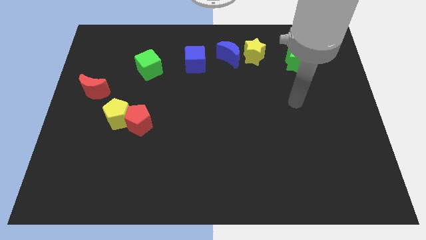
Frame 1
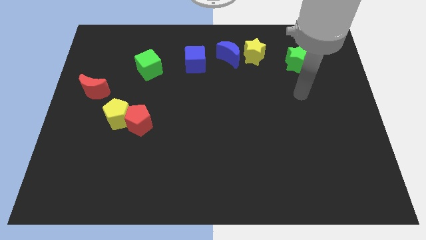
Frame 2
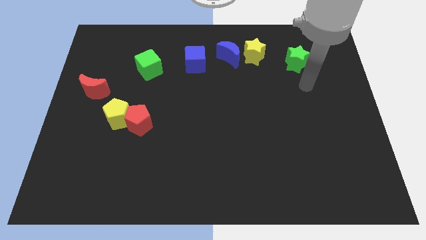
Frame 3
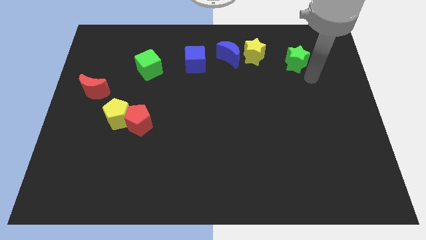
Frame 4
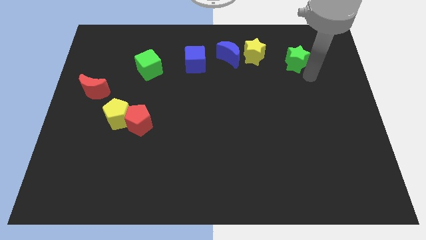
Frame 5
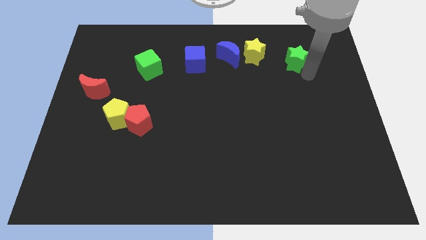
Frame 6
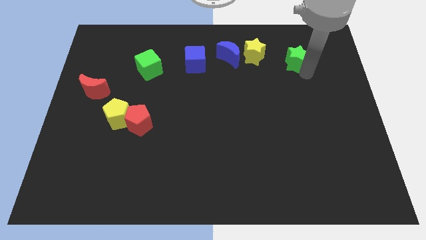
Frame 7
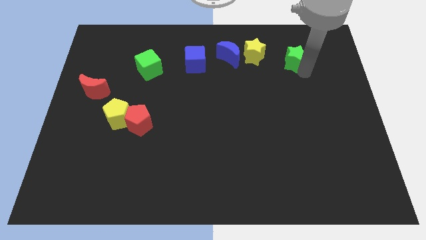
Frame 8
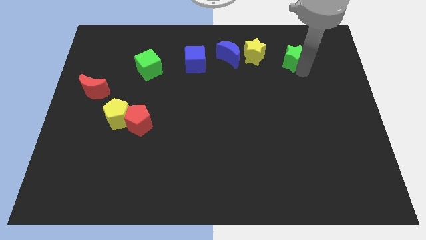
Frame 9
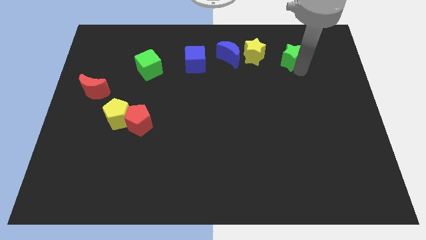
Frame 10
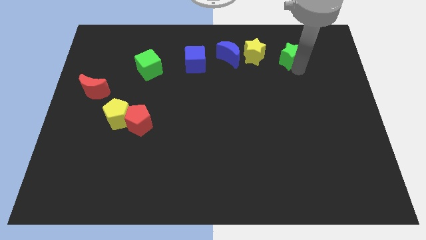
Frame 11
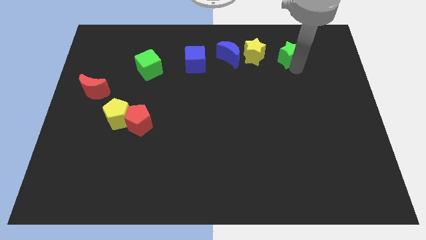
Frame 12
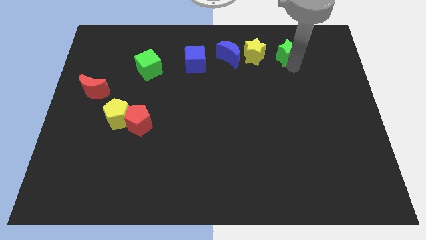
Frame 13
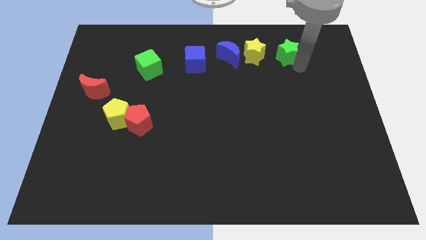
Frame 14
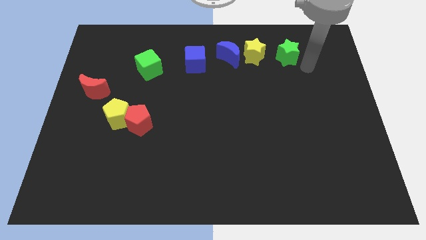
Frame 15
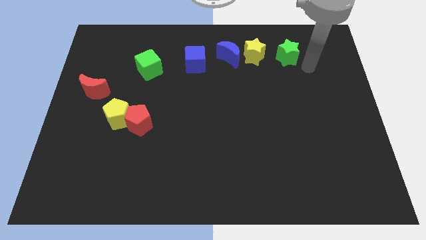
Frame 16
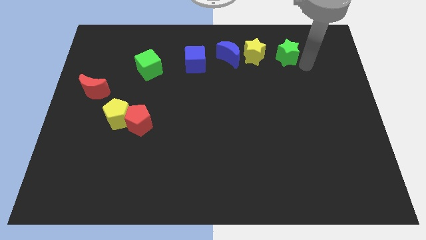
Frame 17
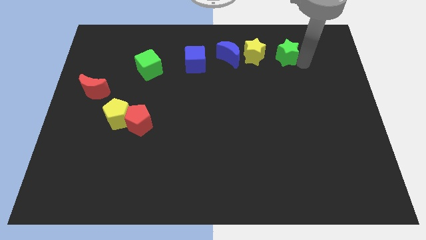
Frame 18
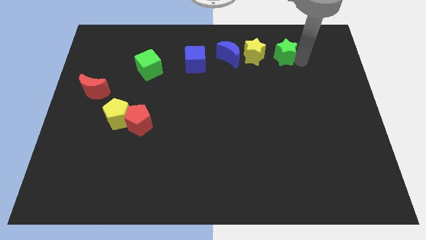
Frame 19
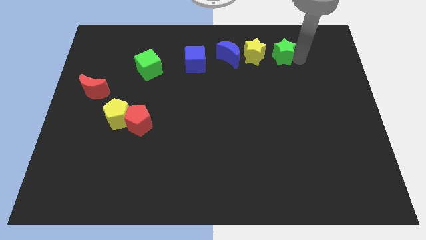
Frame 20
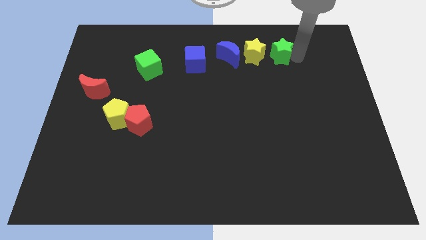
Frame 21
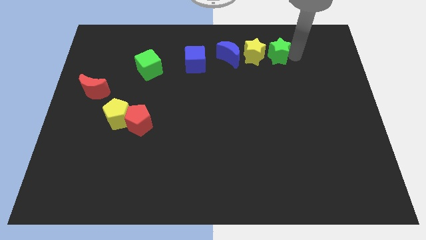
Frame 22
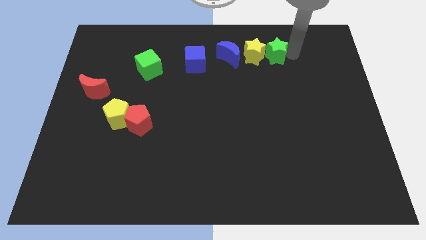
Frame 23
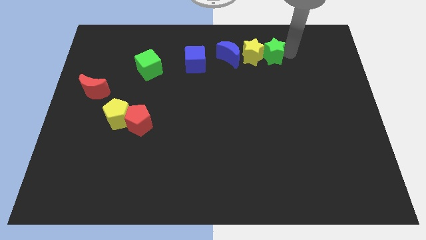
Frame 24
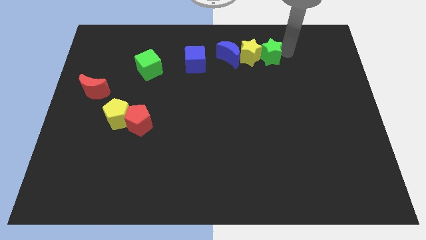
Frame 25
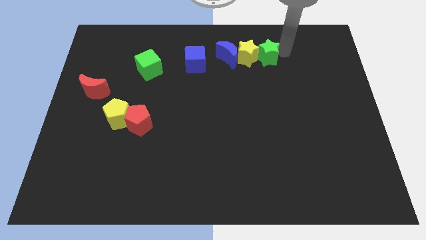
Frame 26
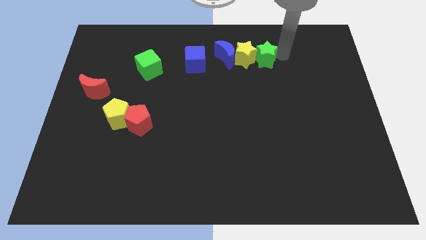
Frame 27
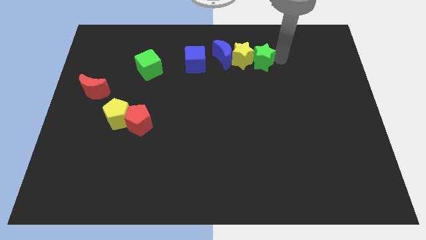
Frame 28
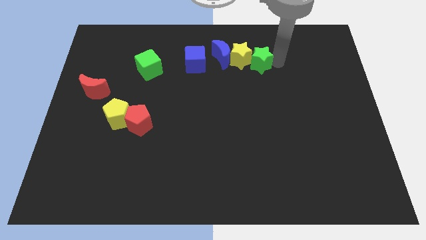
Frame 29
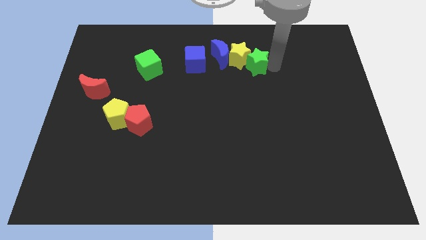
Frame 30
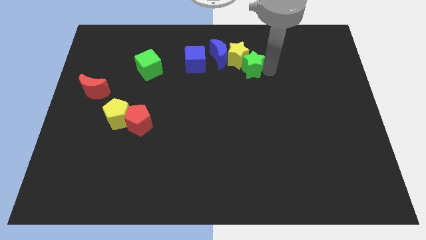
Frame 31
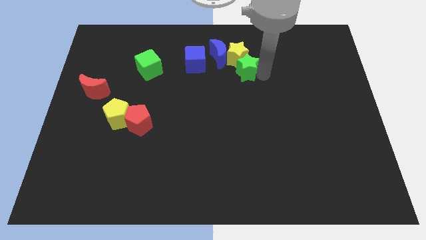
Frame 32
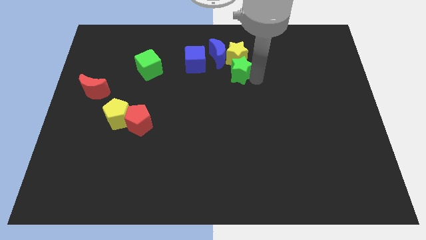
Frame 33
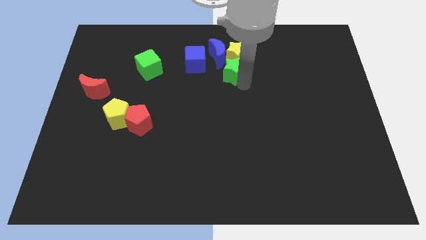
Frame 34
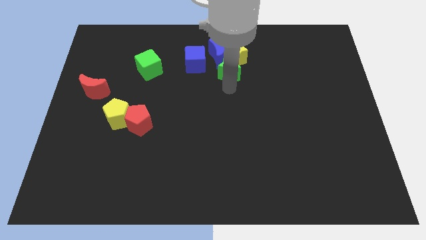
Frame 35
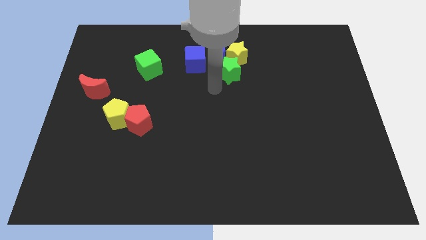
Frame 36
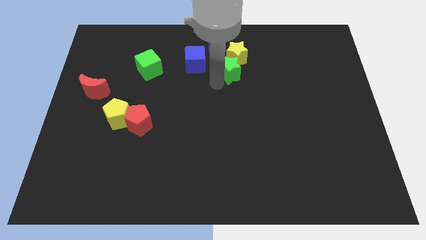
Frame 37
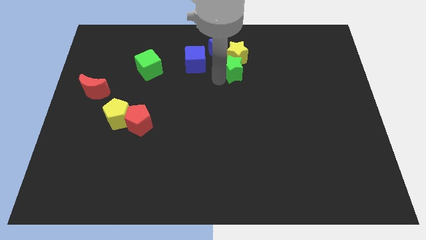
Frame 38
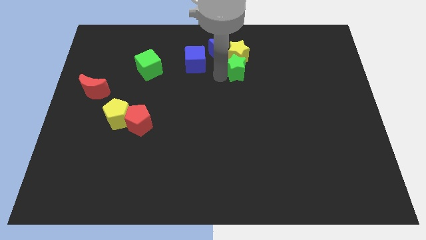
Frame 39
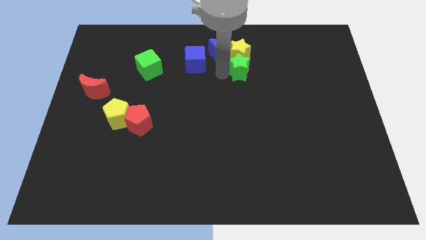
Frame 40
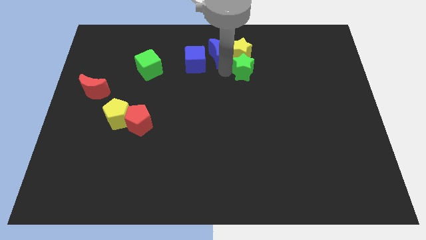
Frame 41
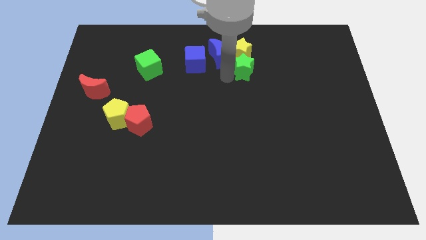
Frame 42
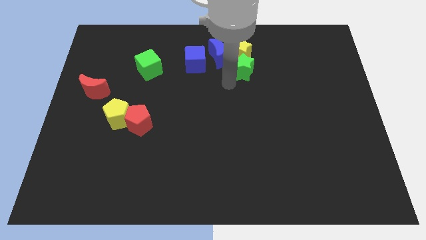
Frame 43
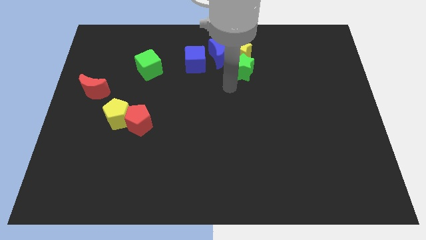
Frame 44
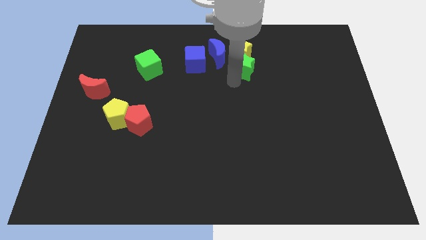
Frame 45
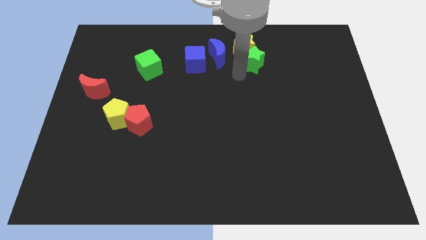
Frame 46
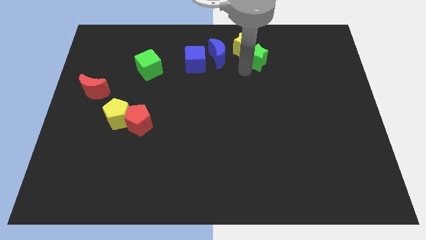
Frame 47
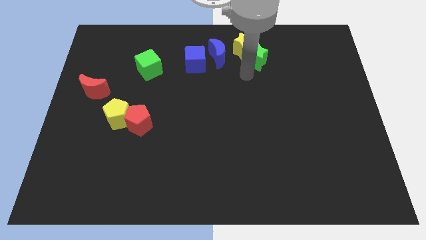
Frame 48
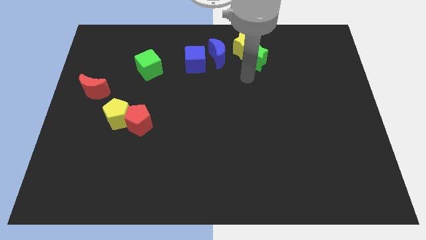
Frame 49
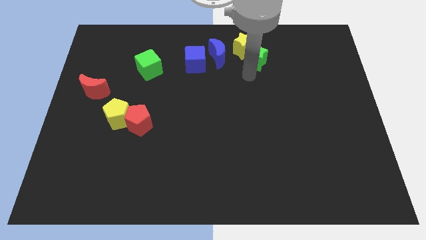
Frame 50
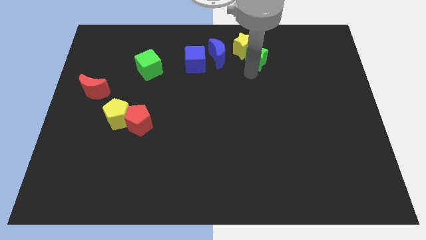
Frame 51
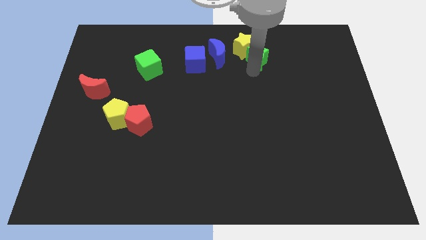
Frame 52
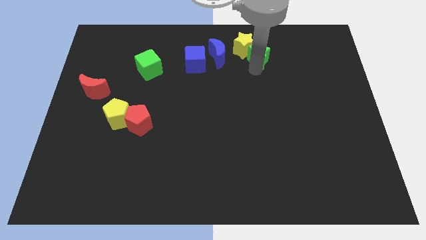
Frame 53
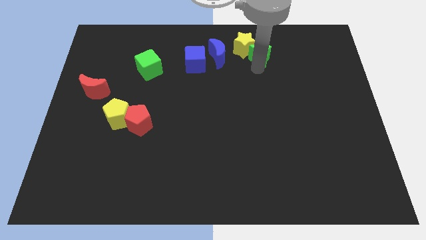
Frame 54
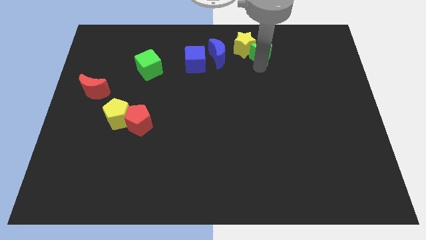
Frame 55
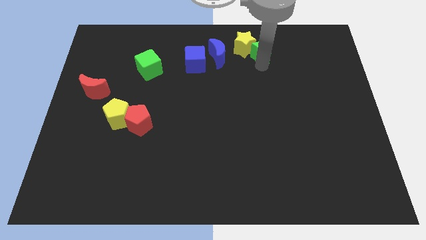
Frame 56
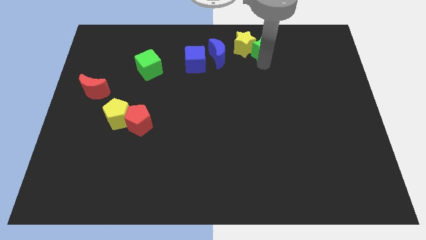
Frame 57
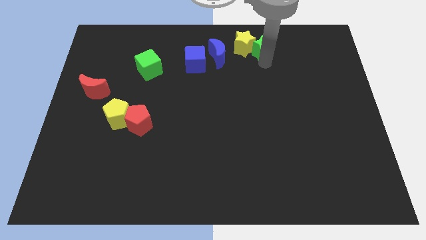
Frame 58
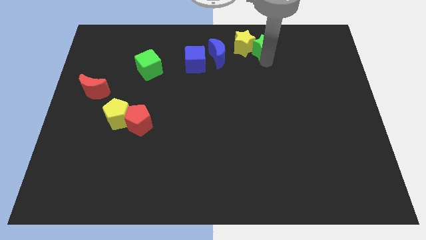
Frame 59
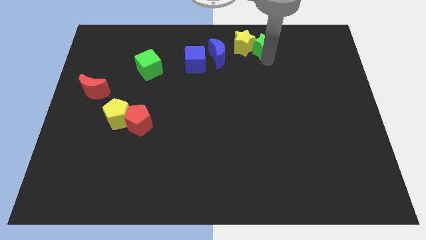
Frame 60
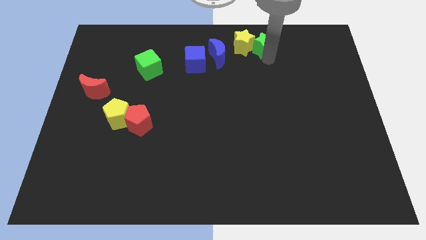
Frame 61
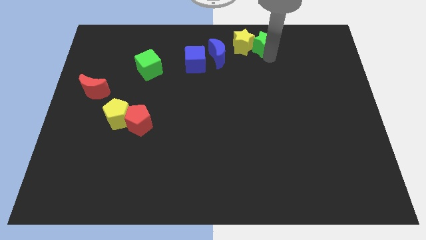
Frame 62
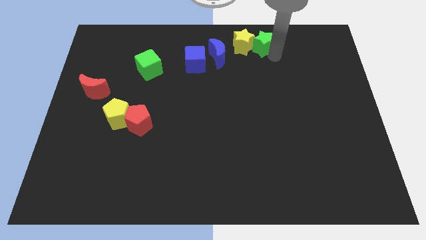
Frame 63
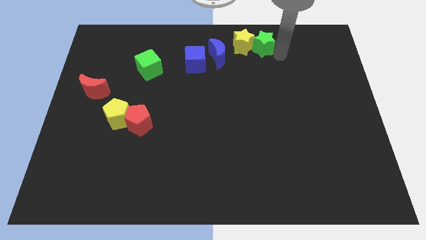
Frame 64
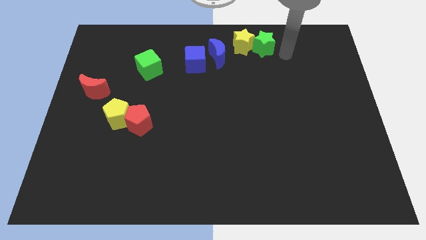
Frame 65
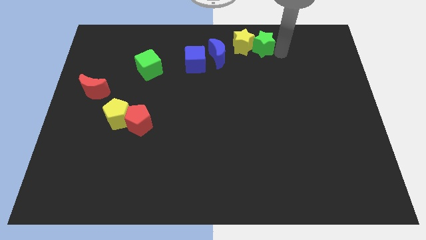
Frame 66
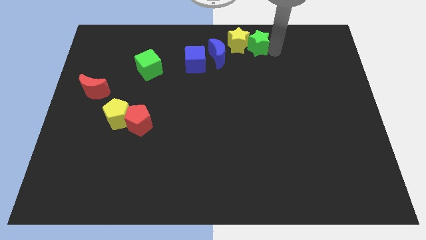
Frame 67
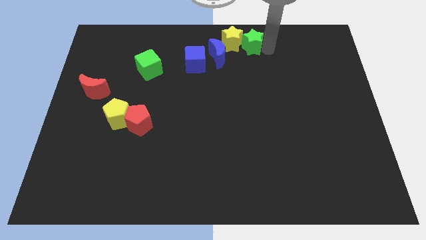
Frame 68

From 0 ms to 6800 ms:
put the green star to the top

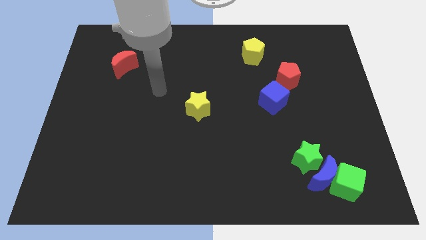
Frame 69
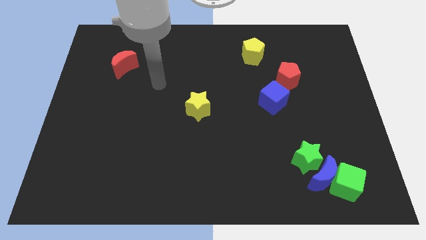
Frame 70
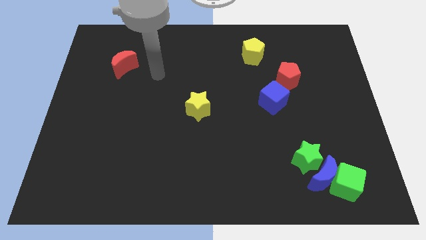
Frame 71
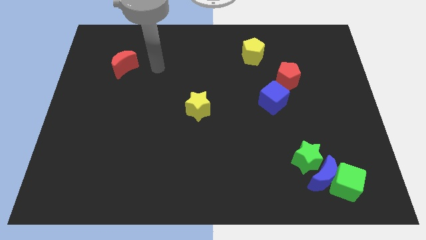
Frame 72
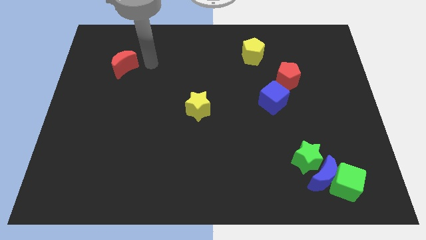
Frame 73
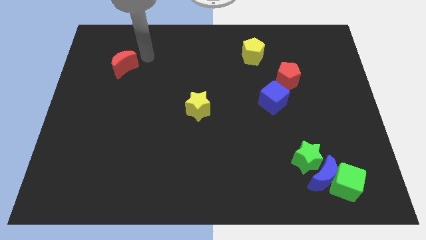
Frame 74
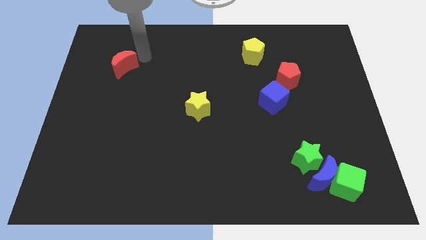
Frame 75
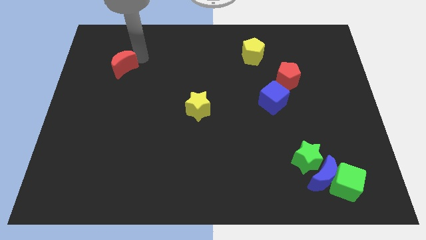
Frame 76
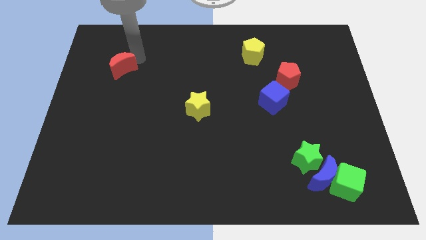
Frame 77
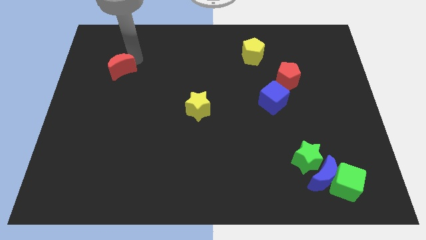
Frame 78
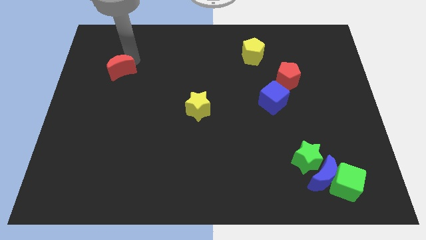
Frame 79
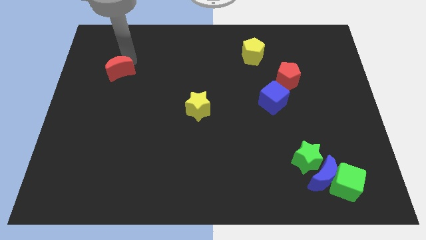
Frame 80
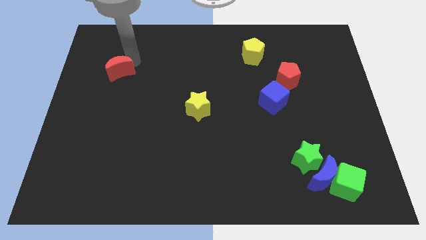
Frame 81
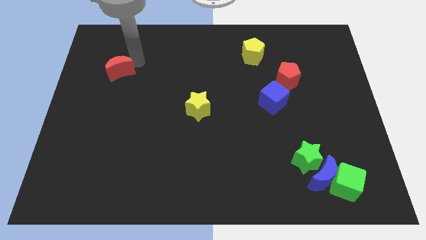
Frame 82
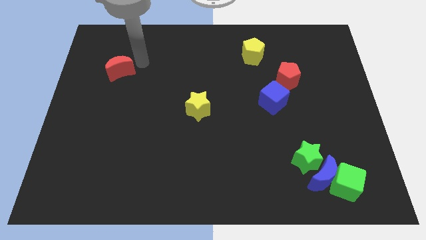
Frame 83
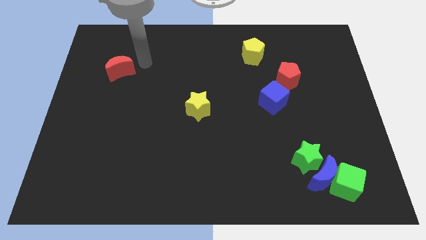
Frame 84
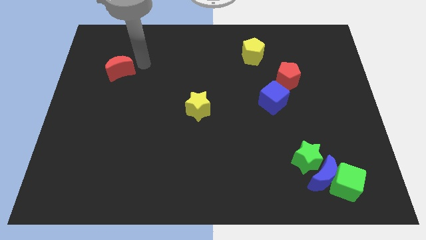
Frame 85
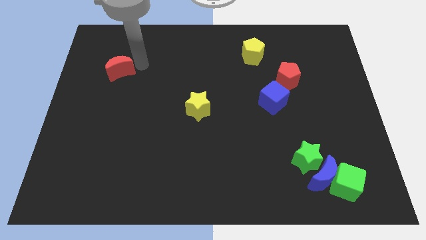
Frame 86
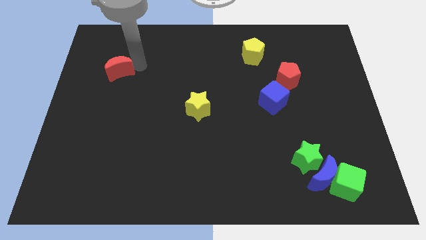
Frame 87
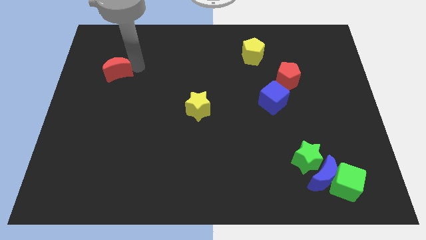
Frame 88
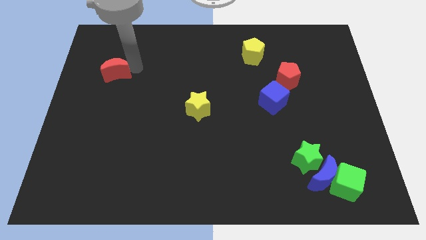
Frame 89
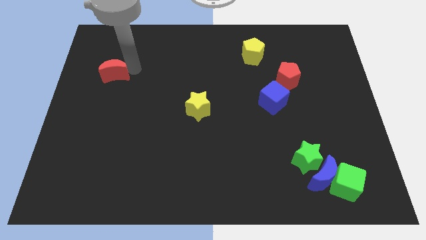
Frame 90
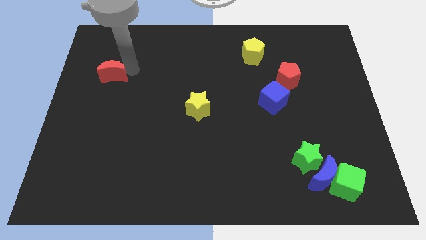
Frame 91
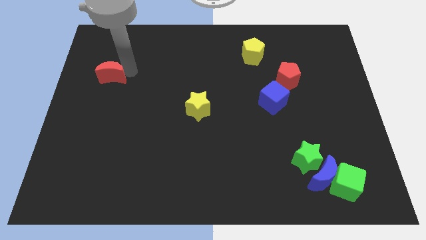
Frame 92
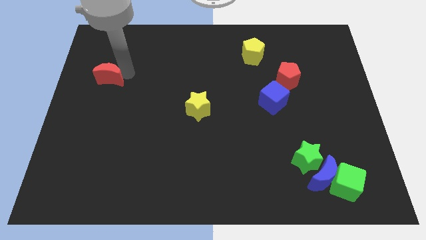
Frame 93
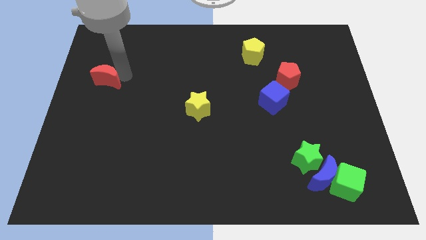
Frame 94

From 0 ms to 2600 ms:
slide the red moon to the left side
